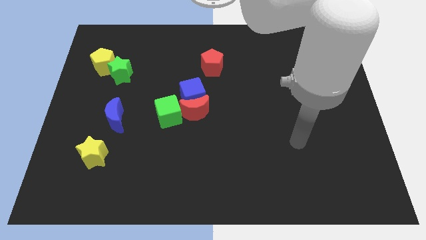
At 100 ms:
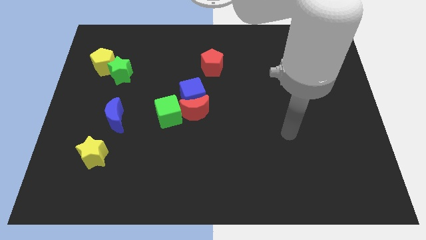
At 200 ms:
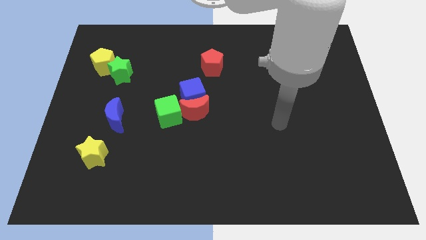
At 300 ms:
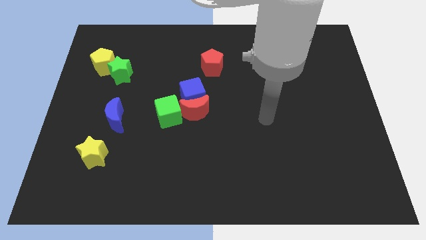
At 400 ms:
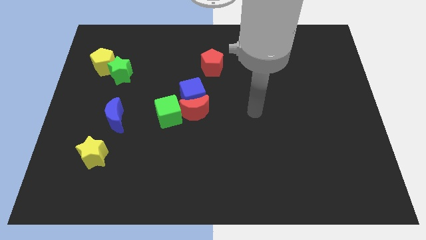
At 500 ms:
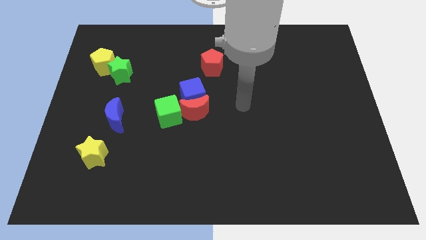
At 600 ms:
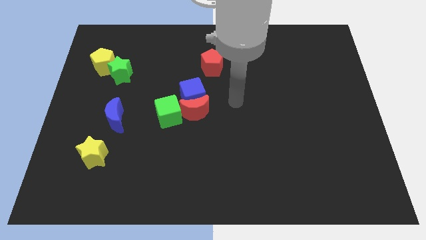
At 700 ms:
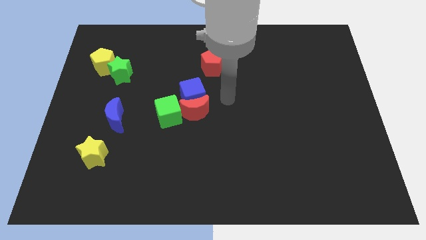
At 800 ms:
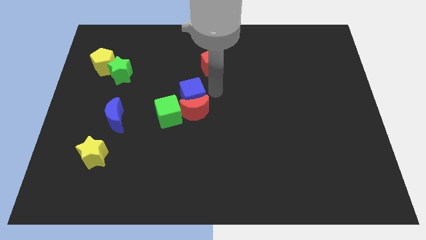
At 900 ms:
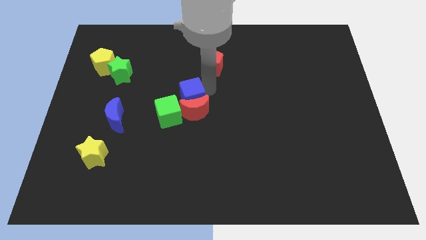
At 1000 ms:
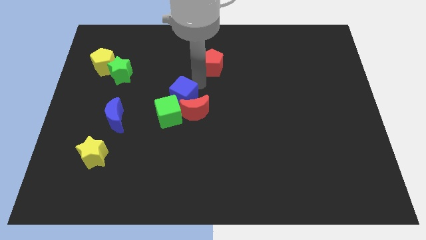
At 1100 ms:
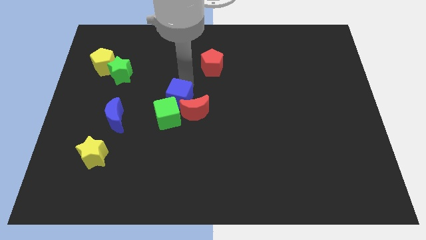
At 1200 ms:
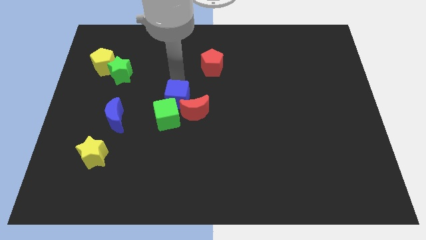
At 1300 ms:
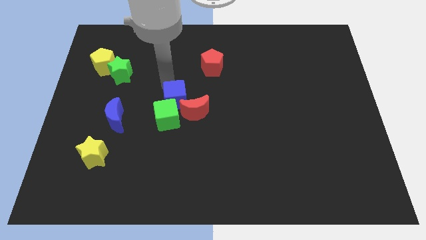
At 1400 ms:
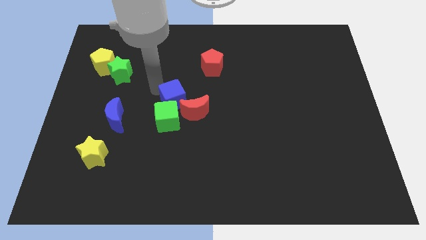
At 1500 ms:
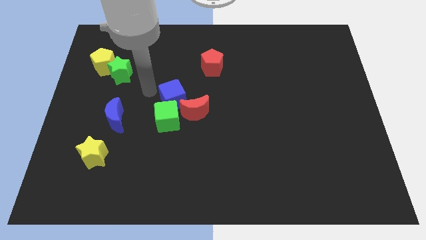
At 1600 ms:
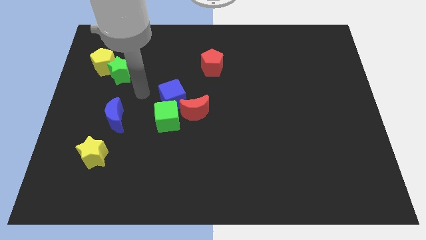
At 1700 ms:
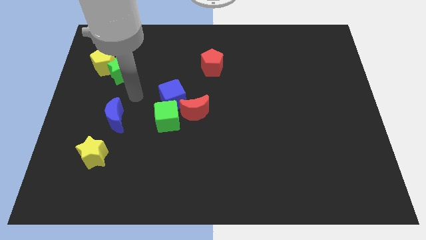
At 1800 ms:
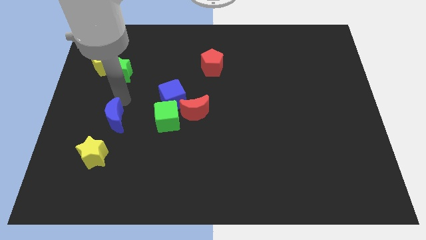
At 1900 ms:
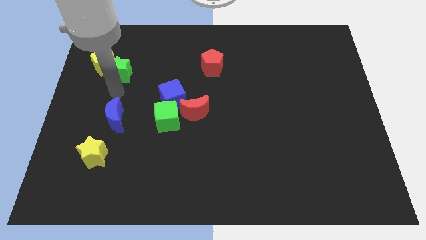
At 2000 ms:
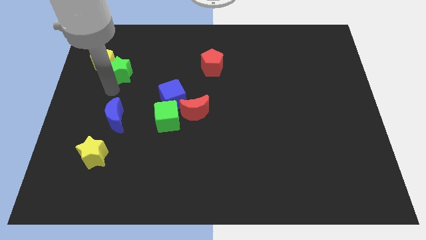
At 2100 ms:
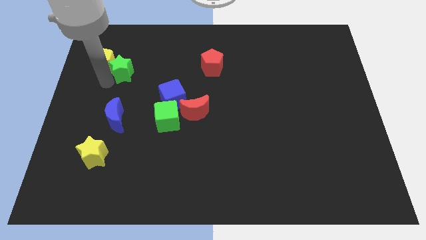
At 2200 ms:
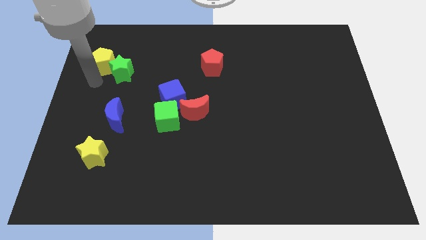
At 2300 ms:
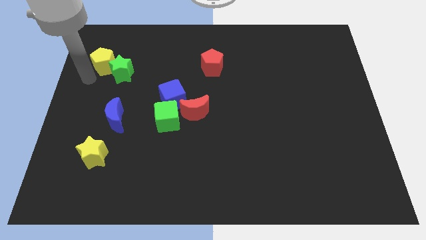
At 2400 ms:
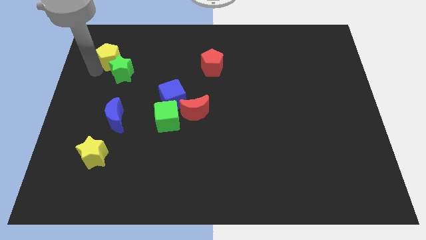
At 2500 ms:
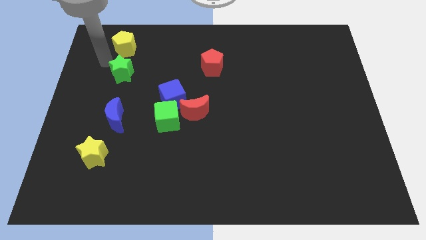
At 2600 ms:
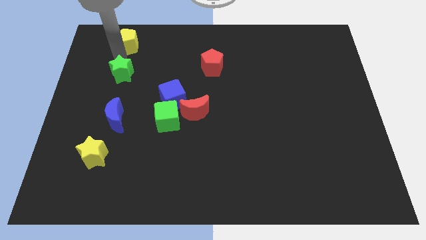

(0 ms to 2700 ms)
pull the green star apart from the yellow pentagon

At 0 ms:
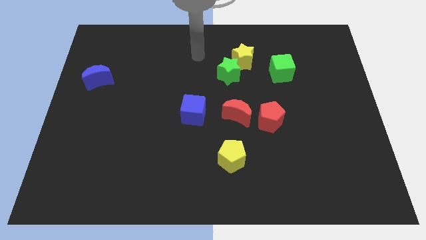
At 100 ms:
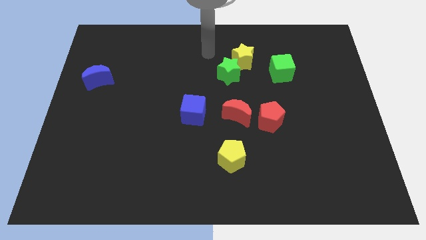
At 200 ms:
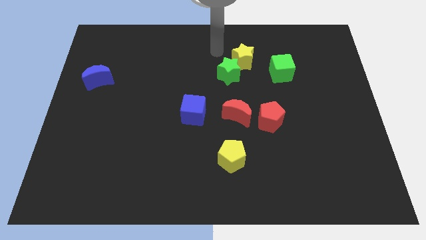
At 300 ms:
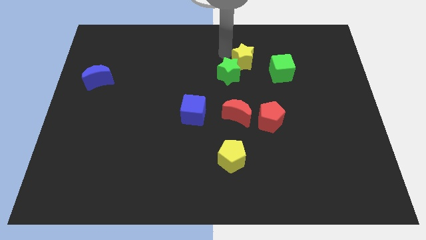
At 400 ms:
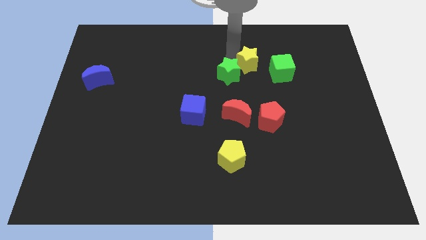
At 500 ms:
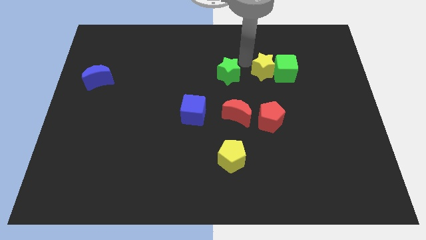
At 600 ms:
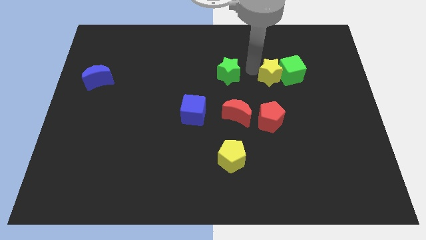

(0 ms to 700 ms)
move the green star away from the yellow star

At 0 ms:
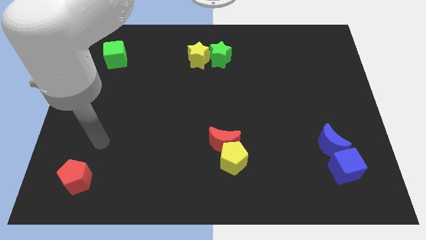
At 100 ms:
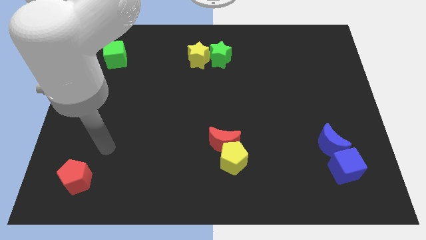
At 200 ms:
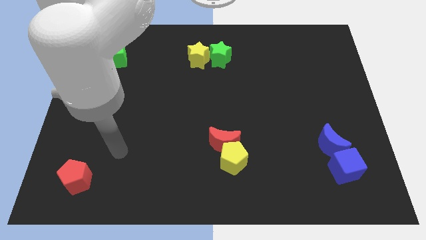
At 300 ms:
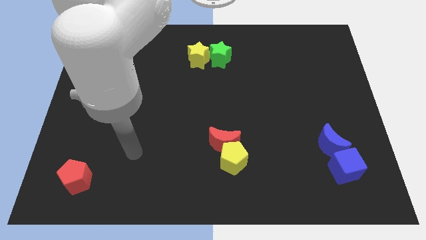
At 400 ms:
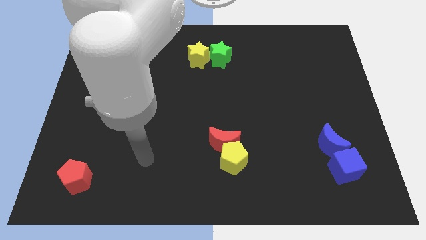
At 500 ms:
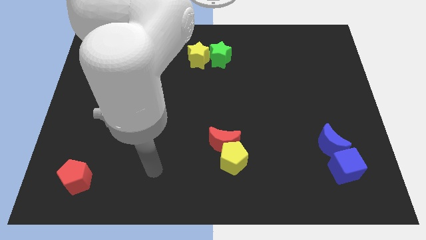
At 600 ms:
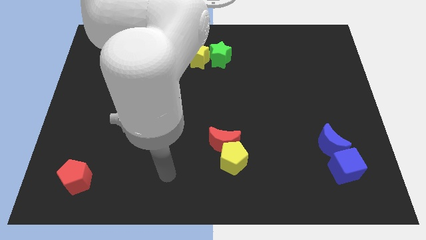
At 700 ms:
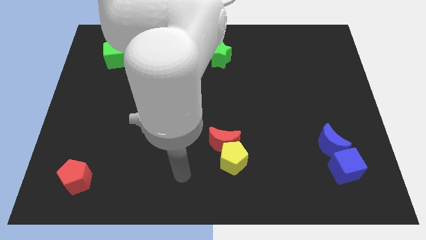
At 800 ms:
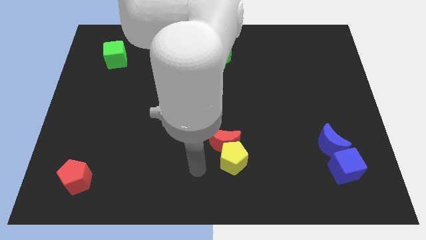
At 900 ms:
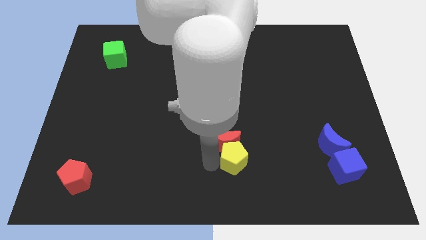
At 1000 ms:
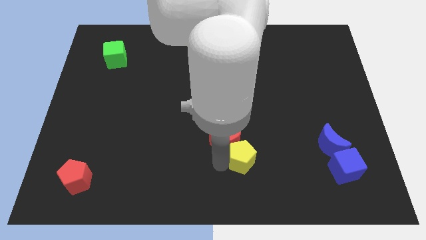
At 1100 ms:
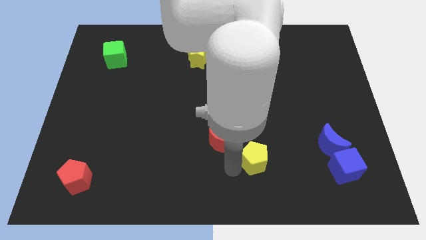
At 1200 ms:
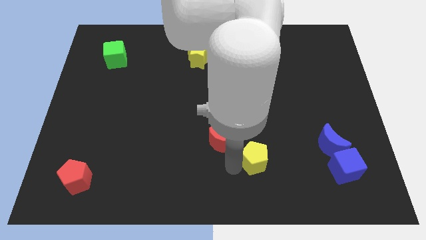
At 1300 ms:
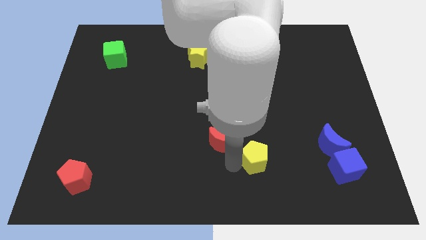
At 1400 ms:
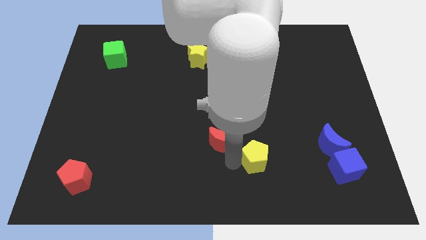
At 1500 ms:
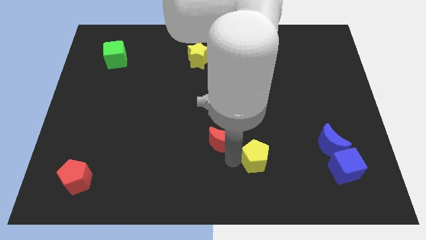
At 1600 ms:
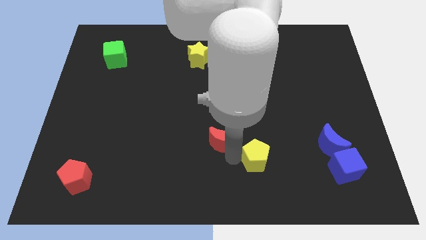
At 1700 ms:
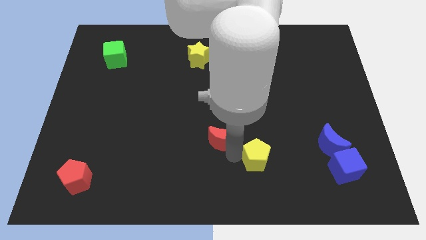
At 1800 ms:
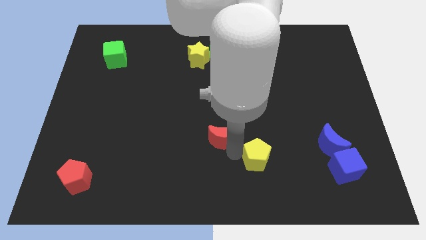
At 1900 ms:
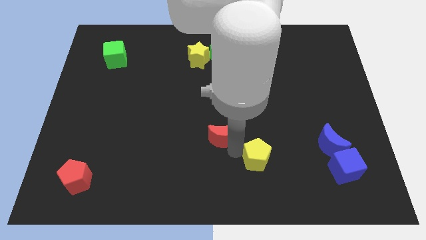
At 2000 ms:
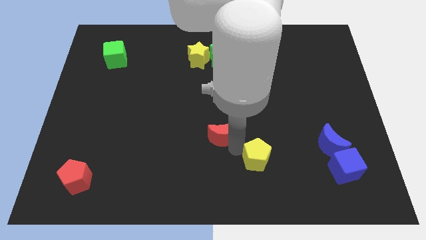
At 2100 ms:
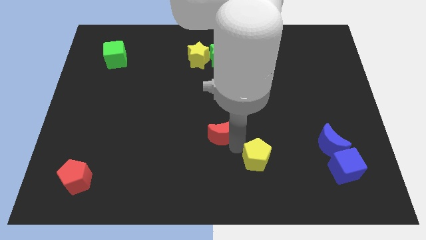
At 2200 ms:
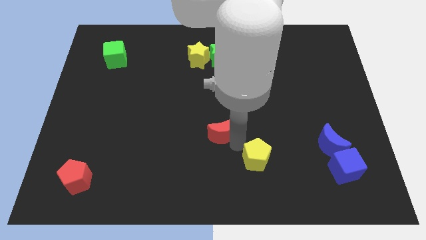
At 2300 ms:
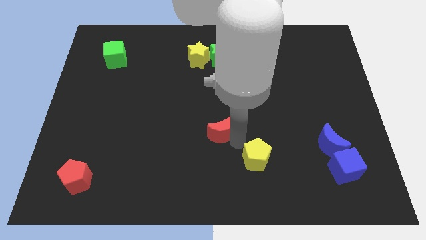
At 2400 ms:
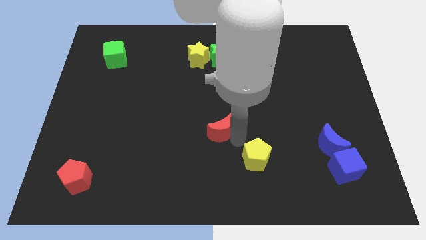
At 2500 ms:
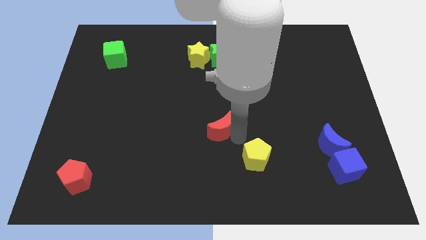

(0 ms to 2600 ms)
pull the red moon apart from the yellow pentagon

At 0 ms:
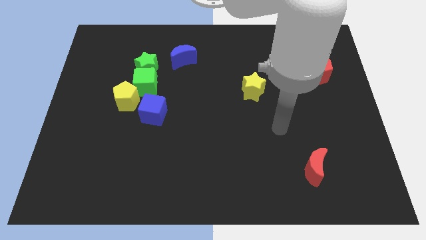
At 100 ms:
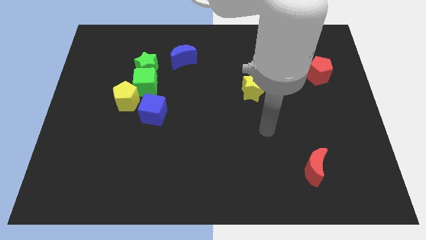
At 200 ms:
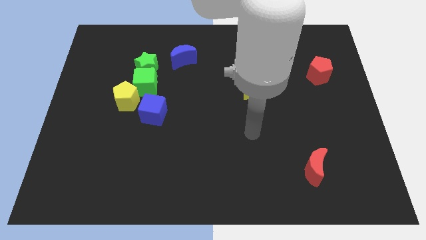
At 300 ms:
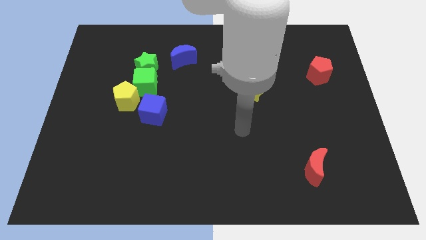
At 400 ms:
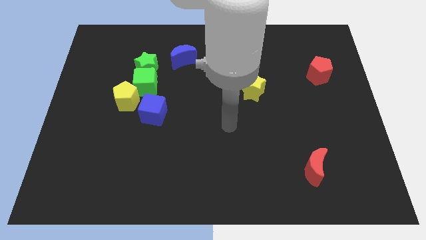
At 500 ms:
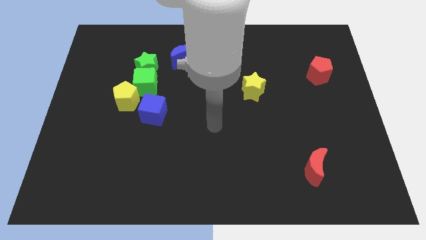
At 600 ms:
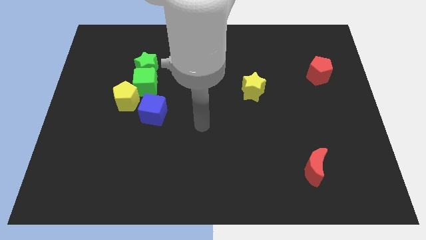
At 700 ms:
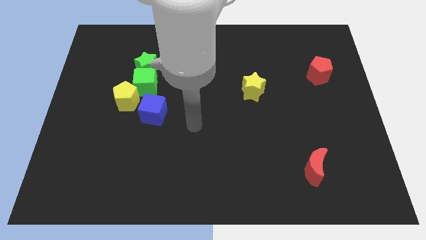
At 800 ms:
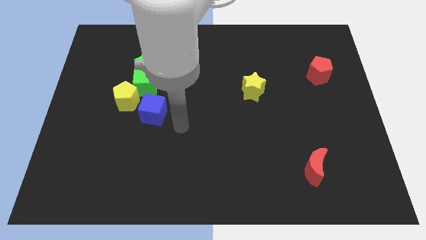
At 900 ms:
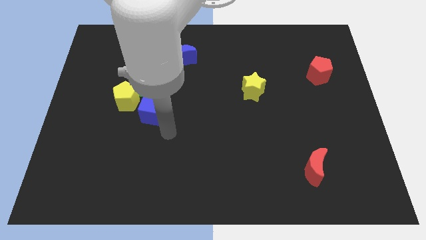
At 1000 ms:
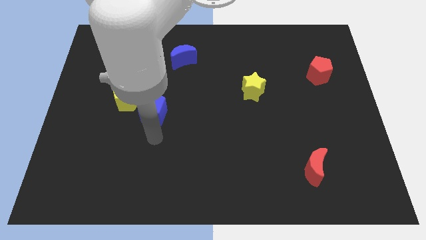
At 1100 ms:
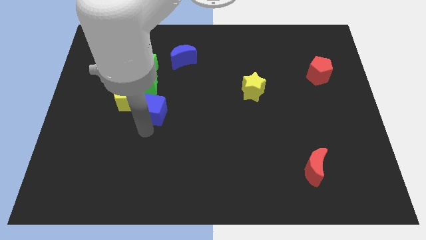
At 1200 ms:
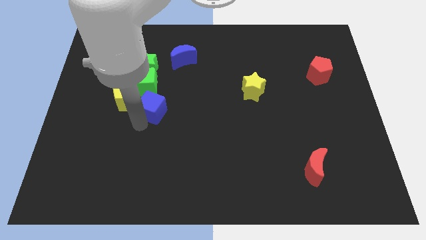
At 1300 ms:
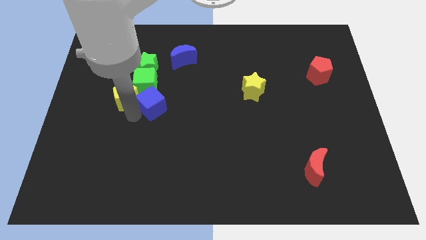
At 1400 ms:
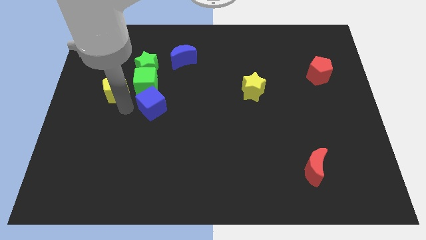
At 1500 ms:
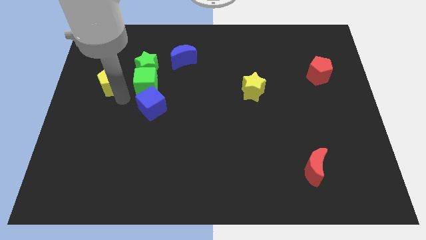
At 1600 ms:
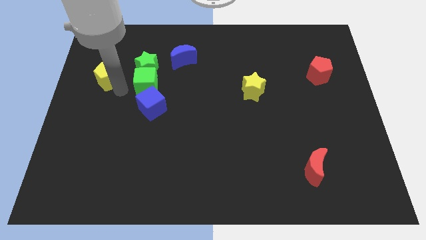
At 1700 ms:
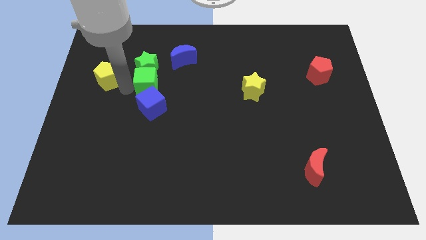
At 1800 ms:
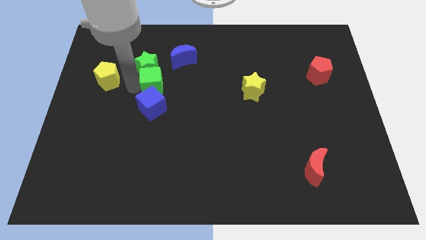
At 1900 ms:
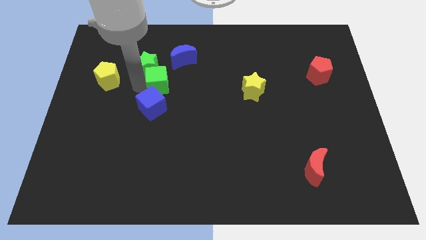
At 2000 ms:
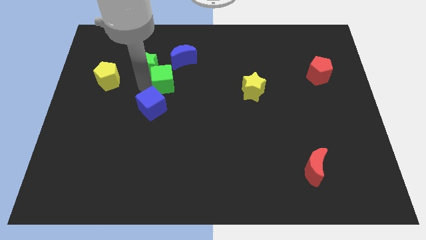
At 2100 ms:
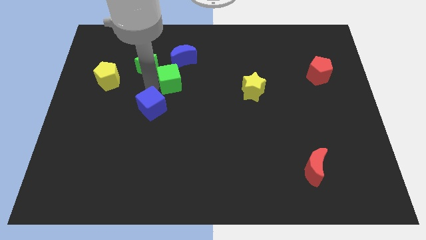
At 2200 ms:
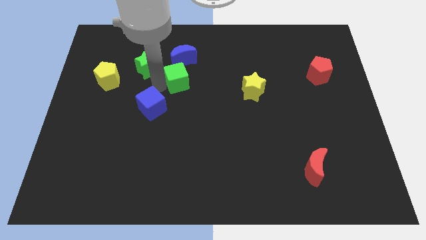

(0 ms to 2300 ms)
separate the green cube from the group of blocks

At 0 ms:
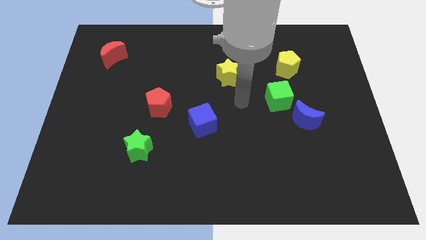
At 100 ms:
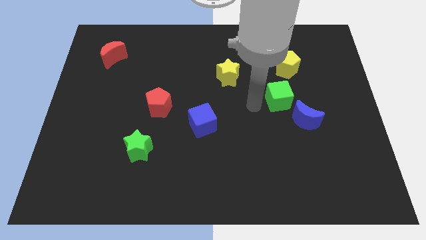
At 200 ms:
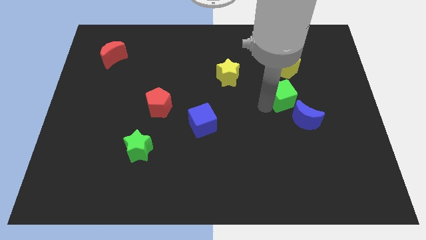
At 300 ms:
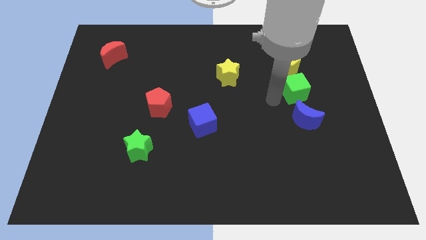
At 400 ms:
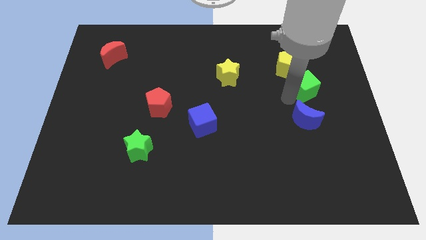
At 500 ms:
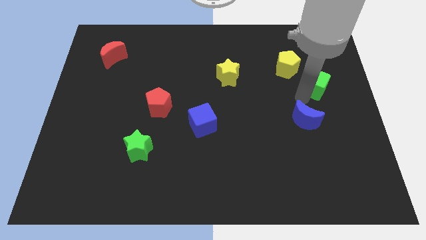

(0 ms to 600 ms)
pull the blue moon apart from the green cube

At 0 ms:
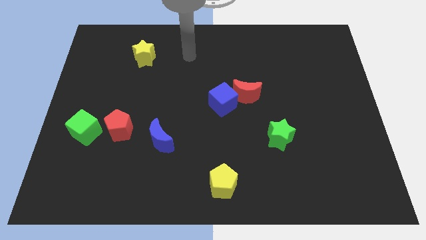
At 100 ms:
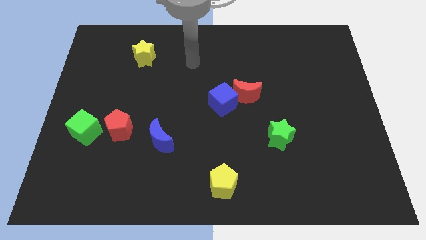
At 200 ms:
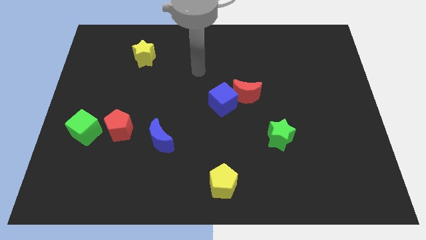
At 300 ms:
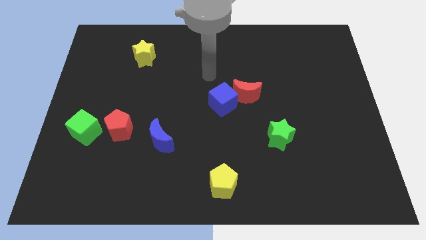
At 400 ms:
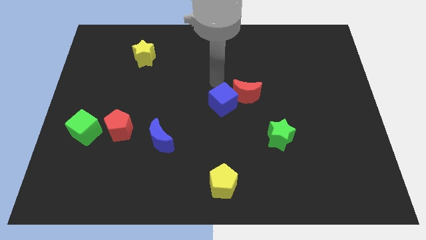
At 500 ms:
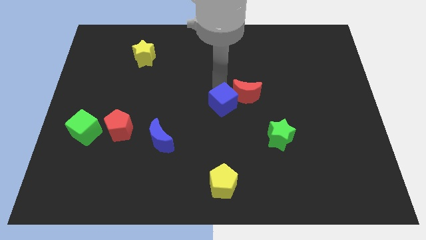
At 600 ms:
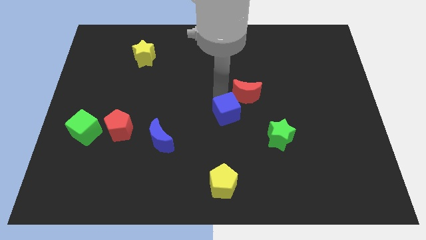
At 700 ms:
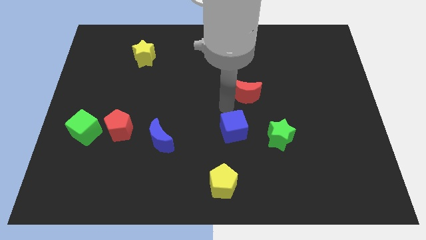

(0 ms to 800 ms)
separate the red moon from the blue cube
